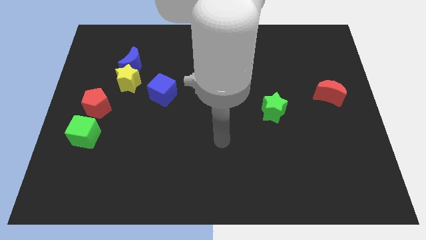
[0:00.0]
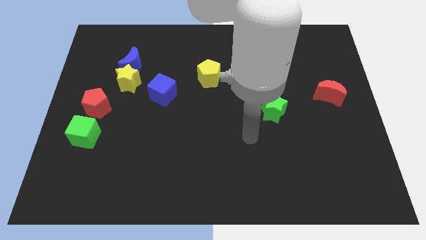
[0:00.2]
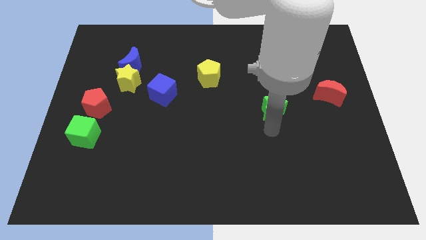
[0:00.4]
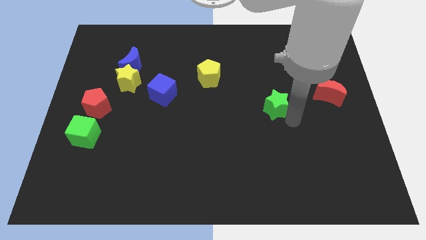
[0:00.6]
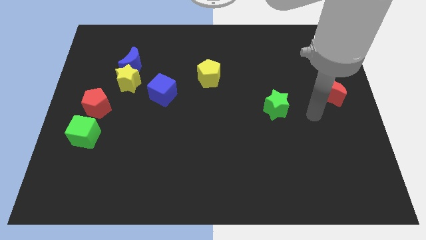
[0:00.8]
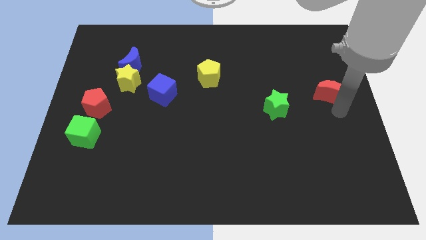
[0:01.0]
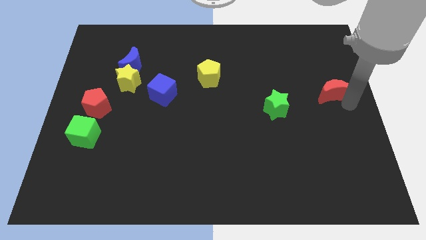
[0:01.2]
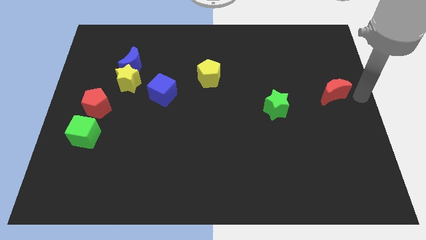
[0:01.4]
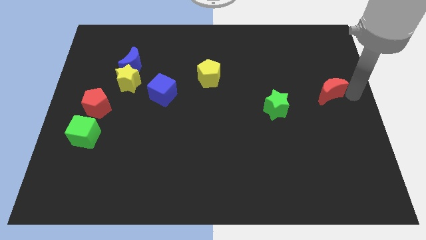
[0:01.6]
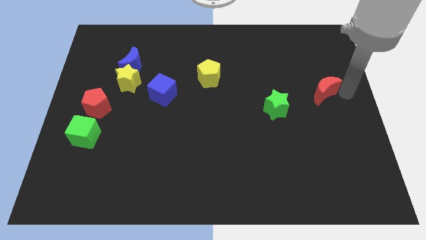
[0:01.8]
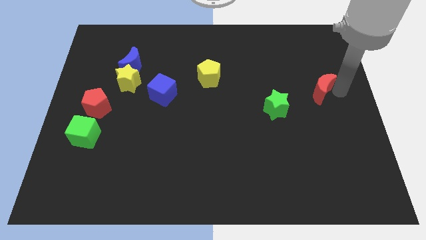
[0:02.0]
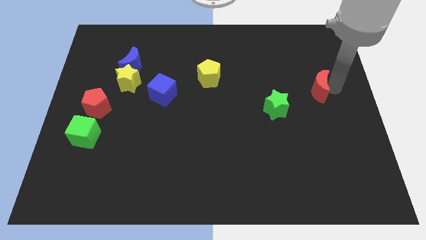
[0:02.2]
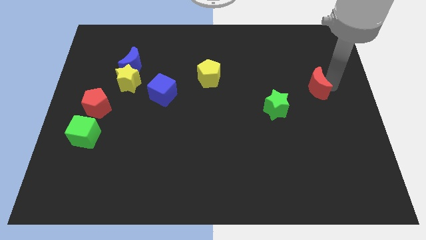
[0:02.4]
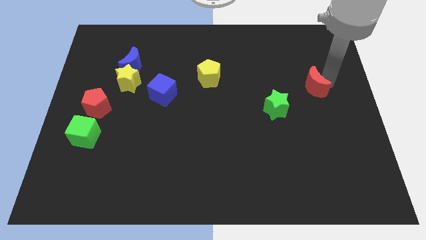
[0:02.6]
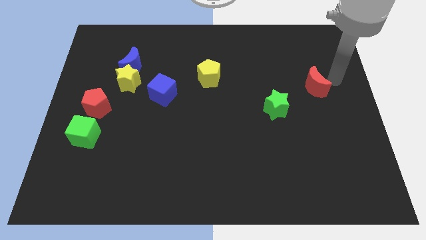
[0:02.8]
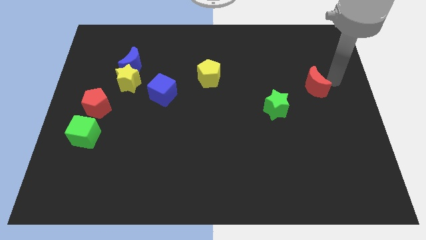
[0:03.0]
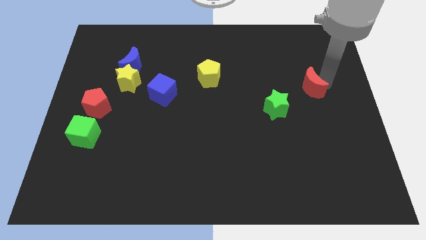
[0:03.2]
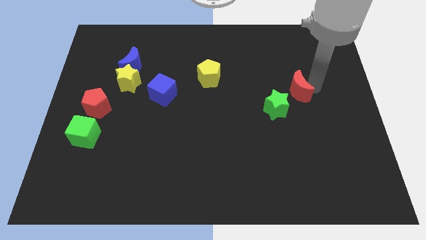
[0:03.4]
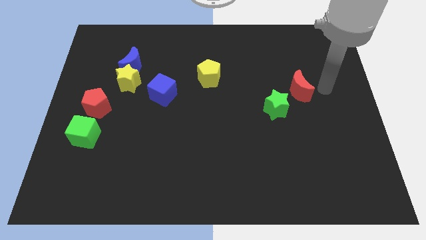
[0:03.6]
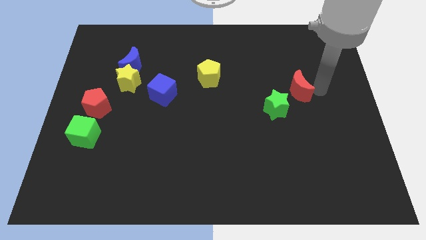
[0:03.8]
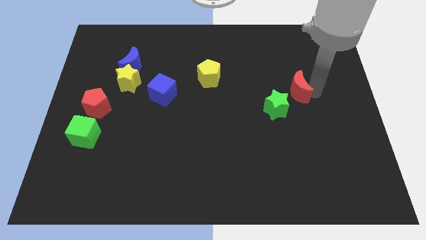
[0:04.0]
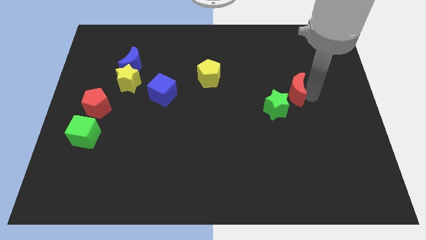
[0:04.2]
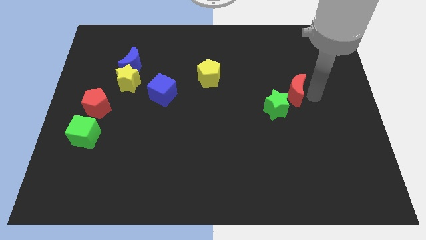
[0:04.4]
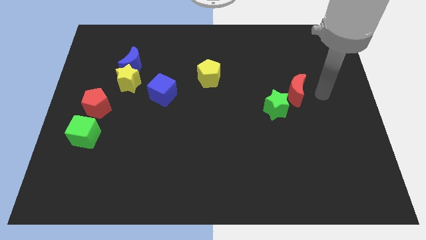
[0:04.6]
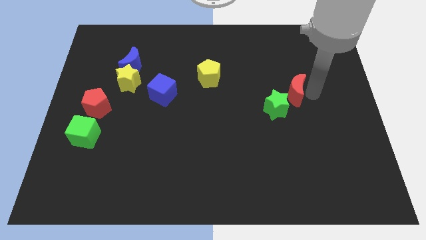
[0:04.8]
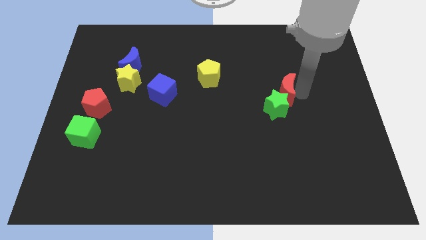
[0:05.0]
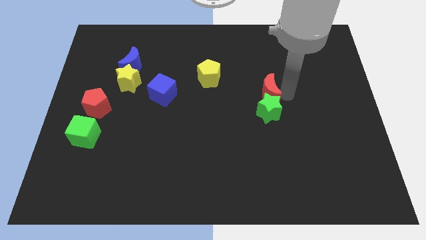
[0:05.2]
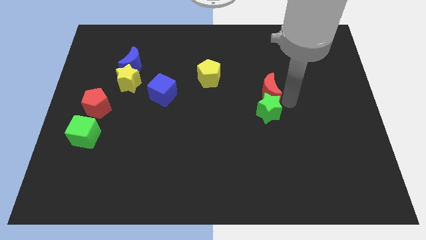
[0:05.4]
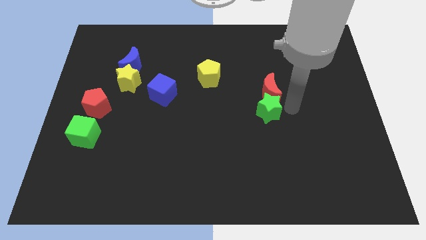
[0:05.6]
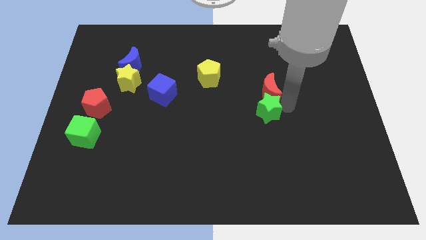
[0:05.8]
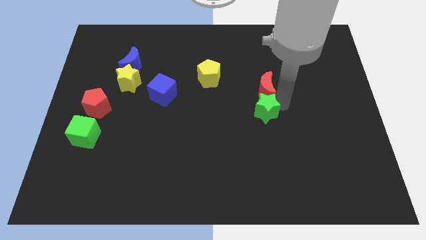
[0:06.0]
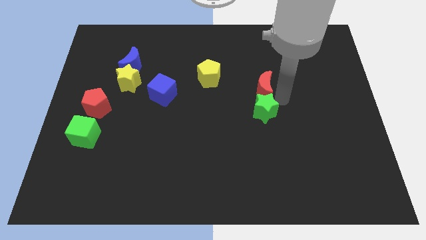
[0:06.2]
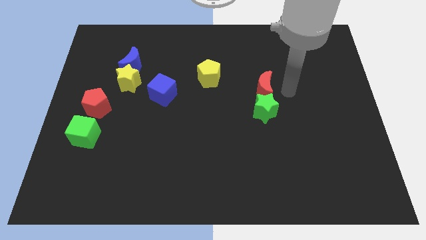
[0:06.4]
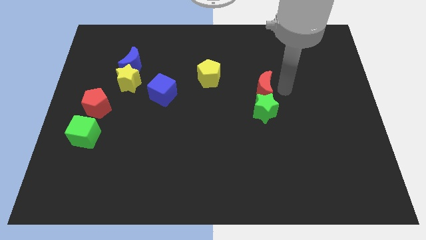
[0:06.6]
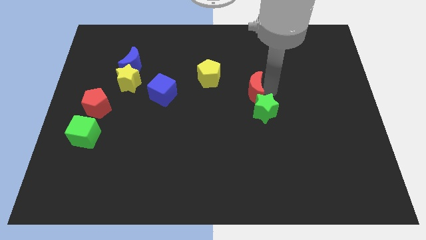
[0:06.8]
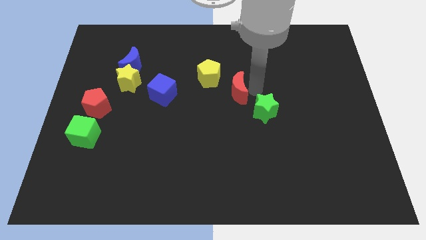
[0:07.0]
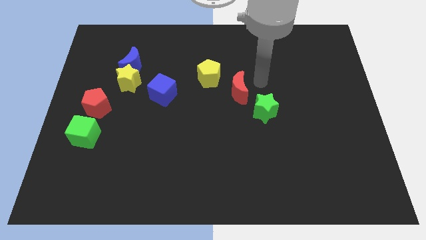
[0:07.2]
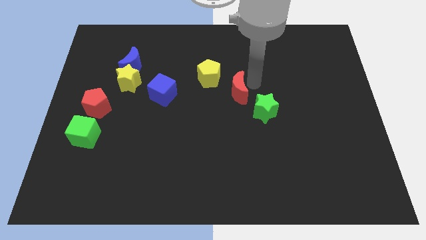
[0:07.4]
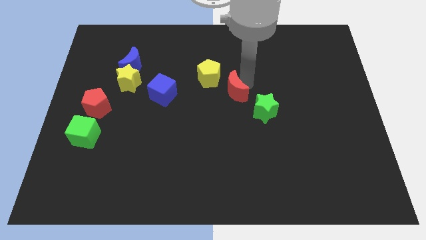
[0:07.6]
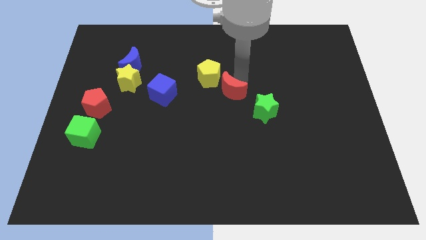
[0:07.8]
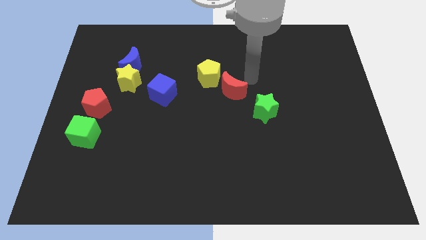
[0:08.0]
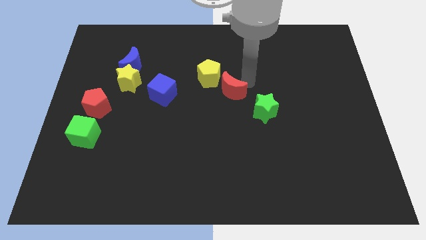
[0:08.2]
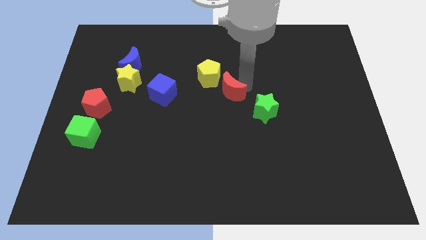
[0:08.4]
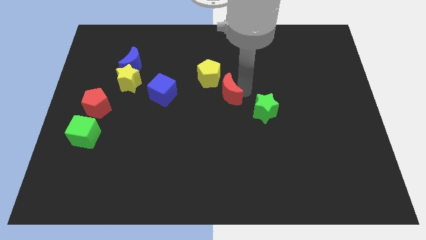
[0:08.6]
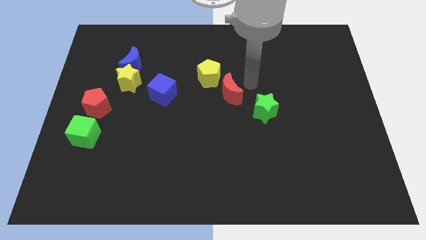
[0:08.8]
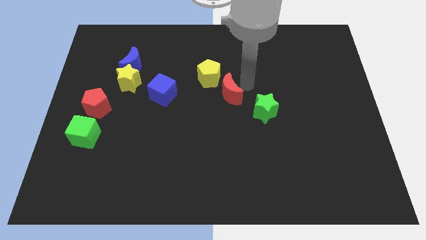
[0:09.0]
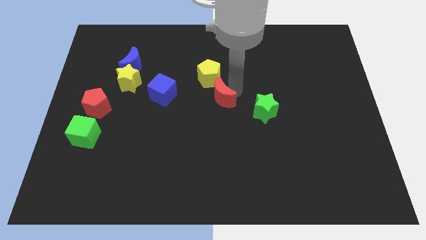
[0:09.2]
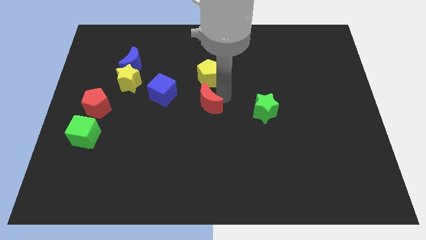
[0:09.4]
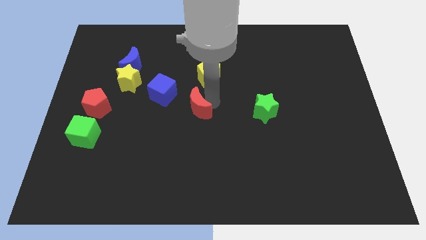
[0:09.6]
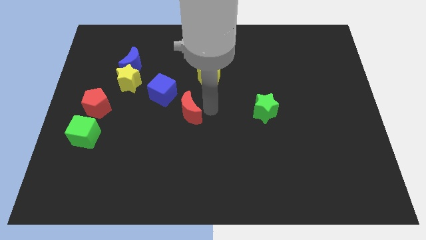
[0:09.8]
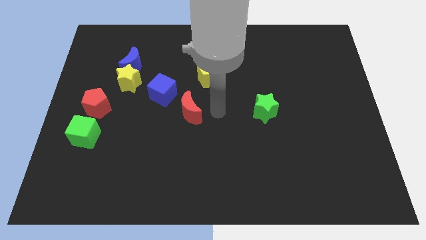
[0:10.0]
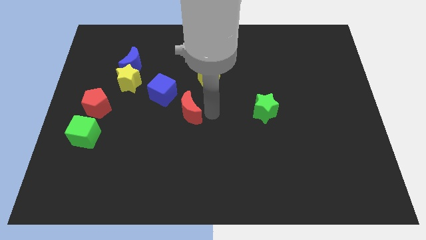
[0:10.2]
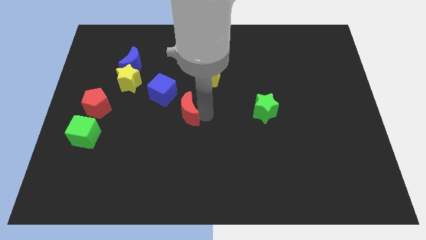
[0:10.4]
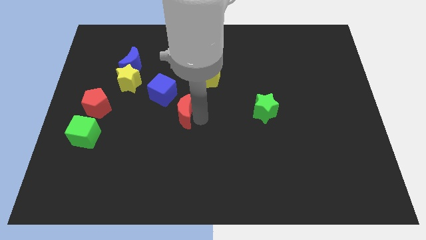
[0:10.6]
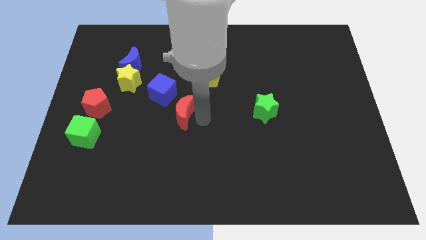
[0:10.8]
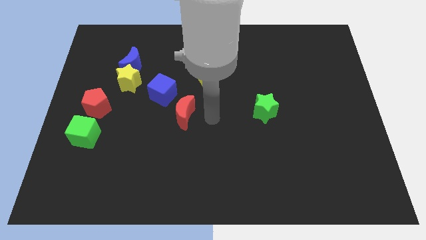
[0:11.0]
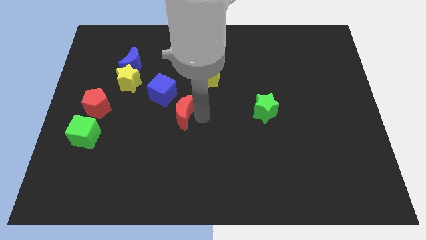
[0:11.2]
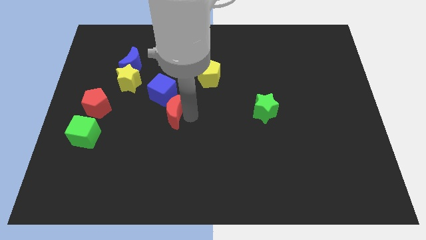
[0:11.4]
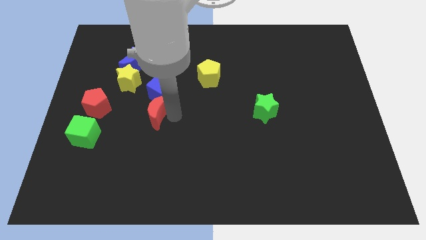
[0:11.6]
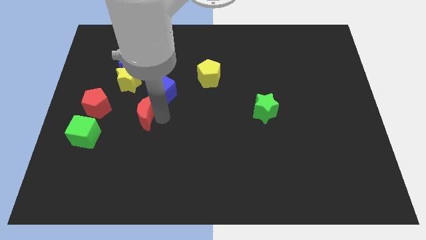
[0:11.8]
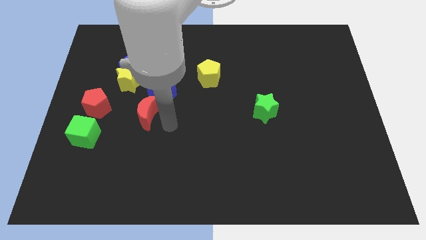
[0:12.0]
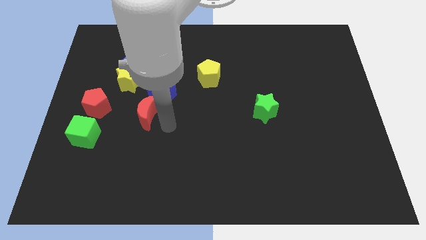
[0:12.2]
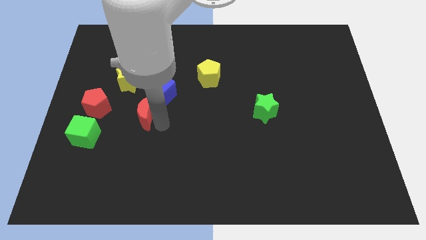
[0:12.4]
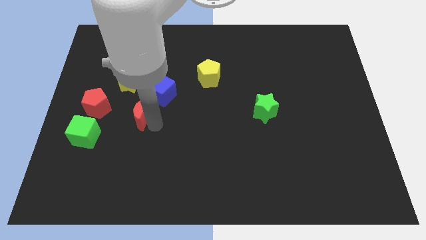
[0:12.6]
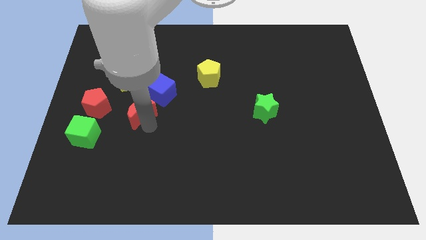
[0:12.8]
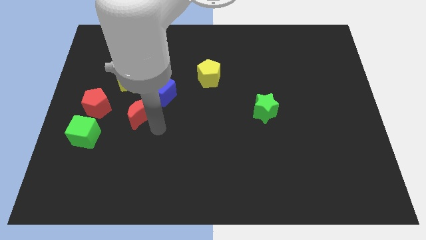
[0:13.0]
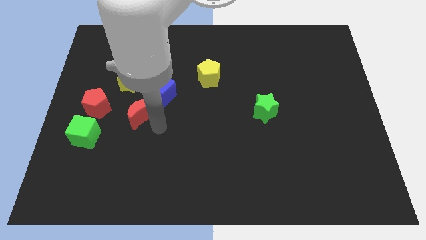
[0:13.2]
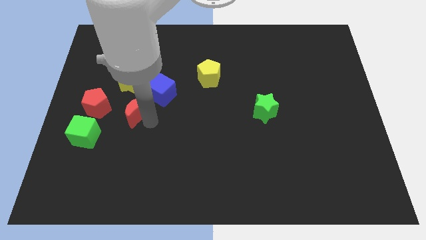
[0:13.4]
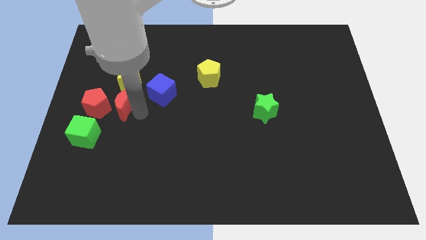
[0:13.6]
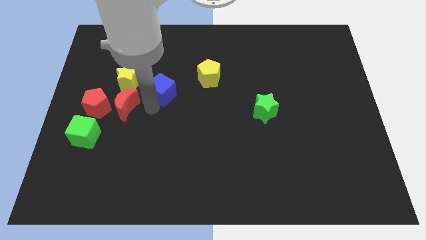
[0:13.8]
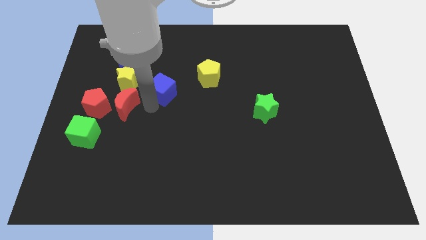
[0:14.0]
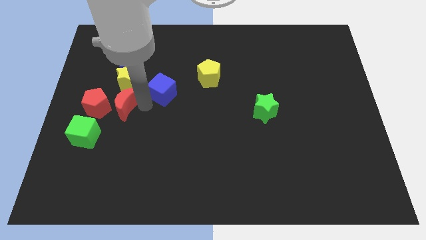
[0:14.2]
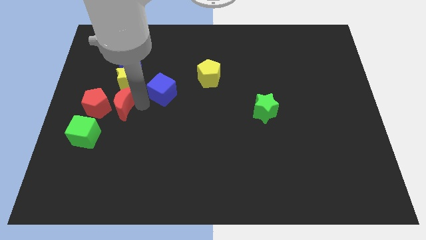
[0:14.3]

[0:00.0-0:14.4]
push the red moon close to the red pentagon
